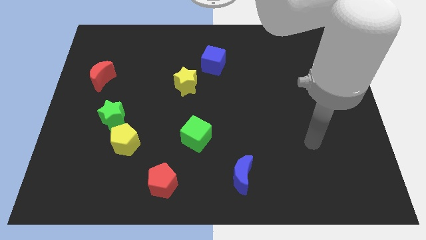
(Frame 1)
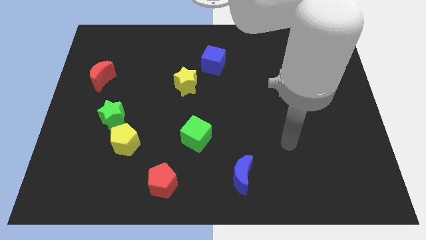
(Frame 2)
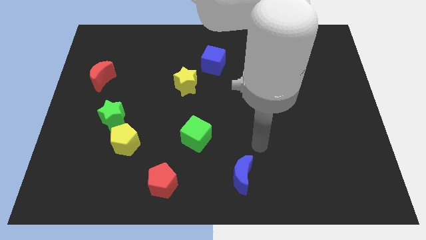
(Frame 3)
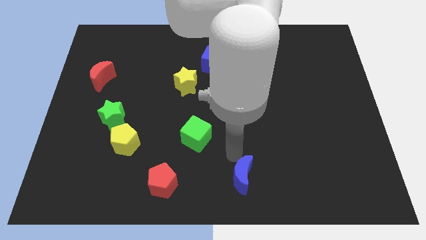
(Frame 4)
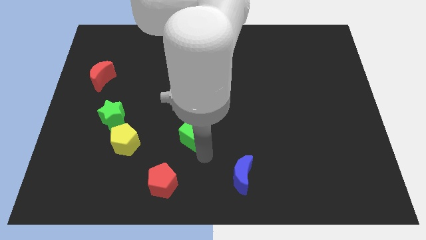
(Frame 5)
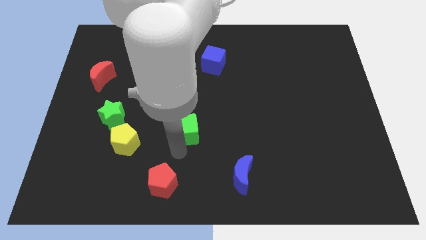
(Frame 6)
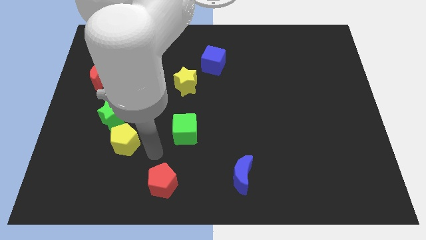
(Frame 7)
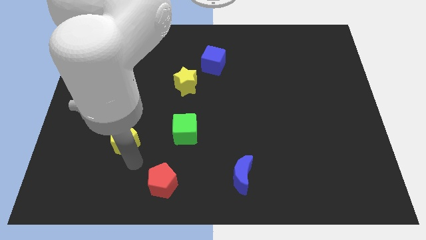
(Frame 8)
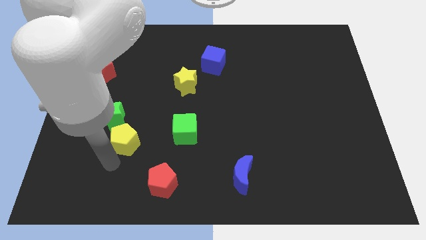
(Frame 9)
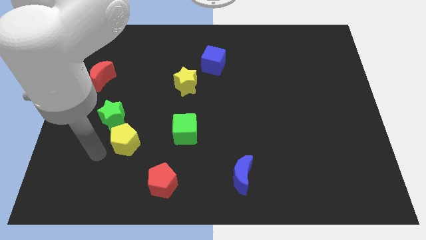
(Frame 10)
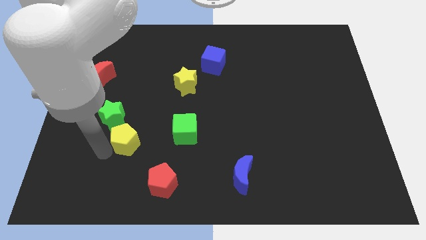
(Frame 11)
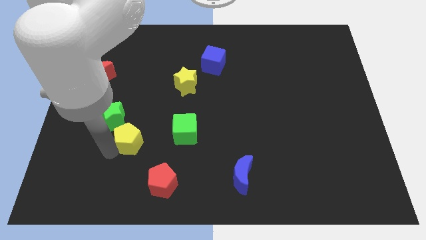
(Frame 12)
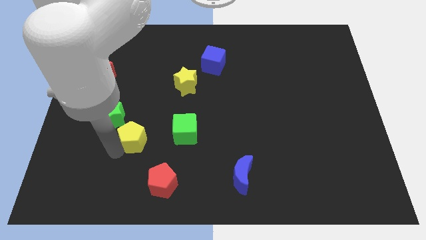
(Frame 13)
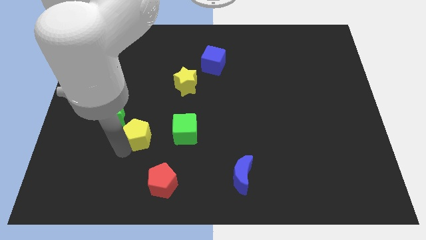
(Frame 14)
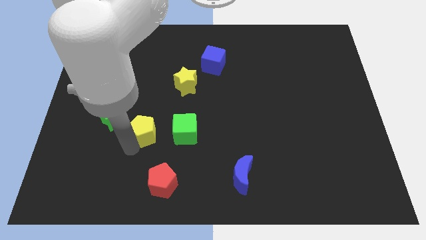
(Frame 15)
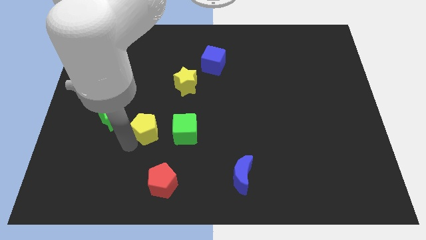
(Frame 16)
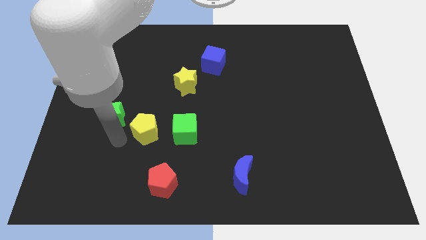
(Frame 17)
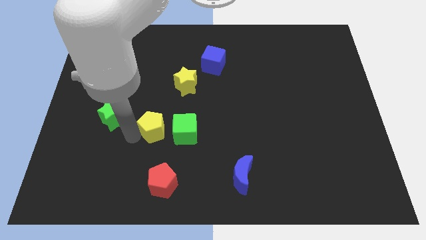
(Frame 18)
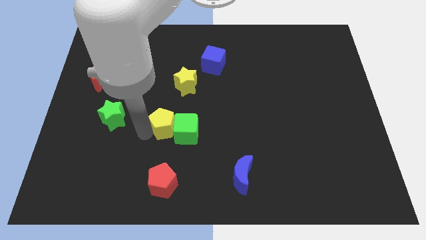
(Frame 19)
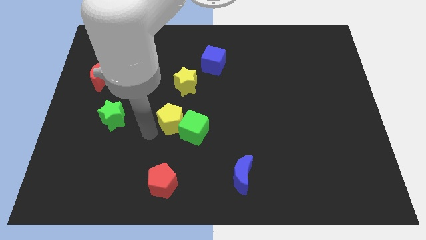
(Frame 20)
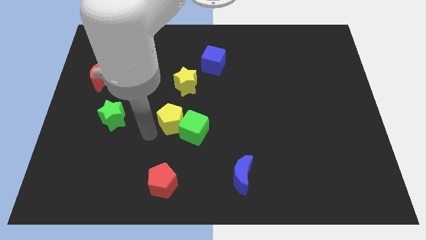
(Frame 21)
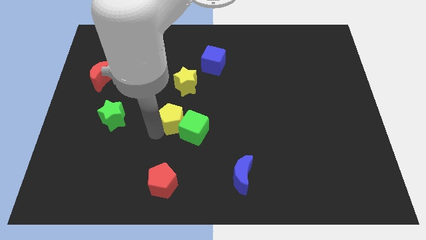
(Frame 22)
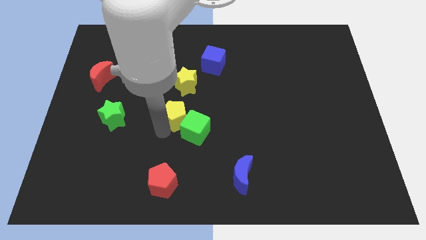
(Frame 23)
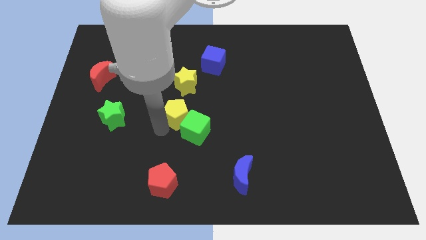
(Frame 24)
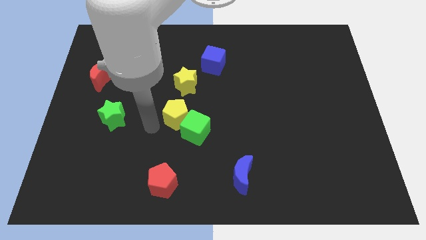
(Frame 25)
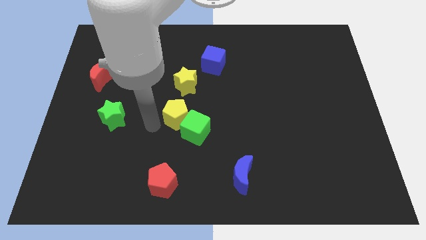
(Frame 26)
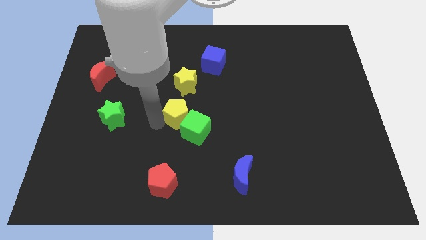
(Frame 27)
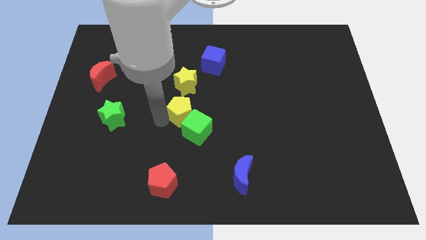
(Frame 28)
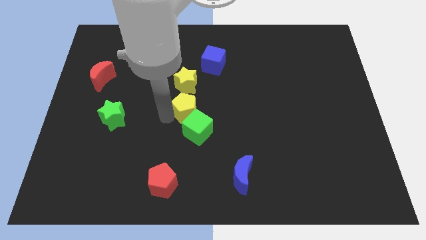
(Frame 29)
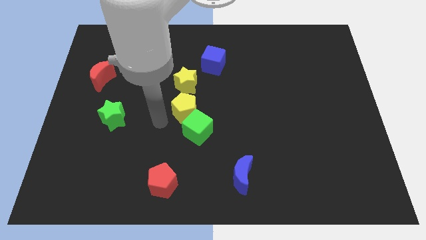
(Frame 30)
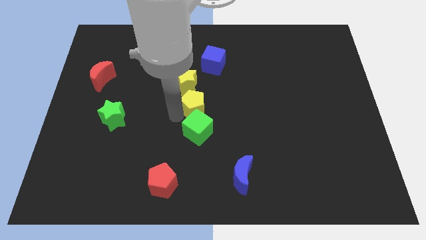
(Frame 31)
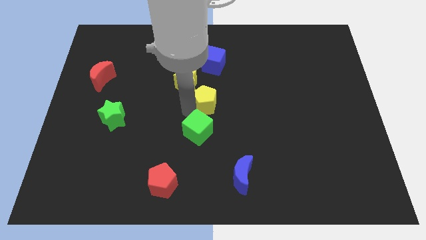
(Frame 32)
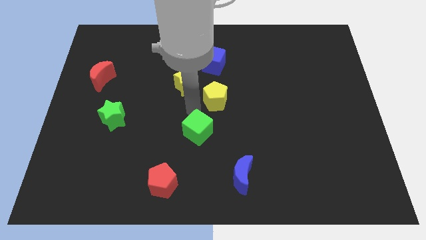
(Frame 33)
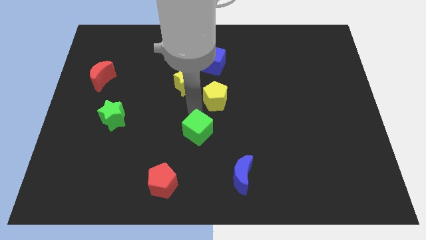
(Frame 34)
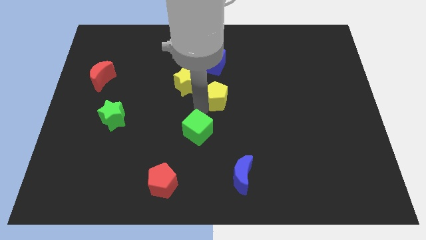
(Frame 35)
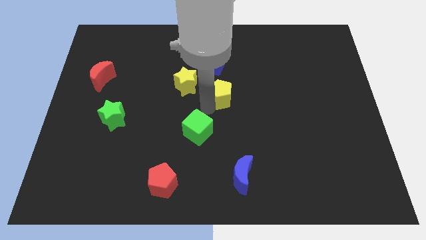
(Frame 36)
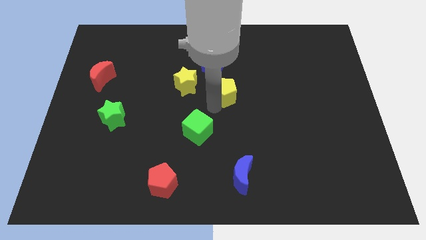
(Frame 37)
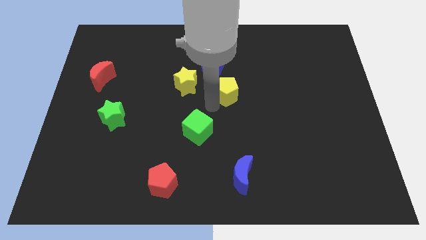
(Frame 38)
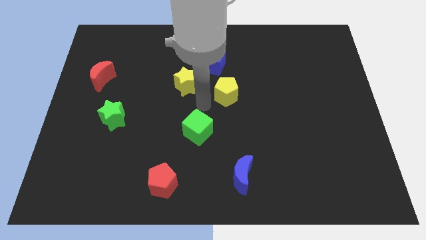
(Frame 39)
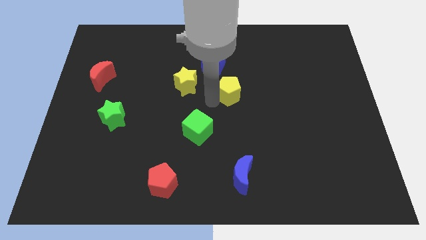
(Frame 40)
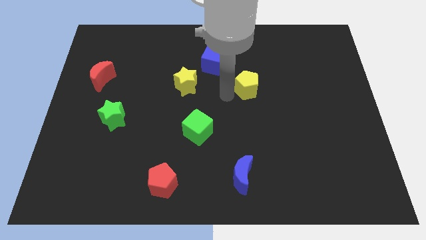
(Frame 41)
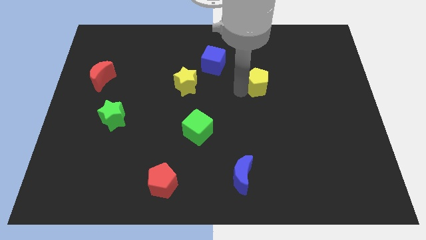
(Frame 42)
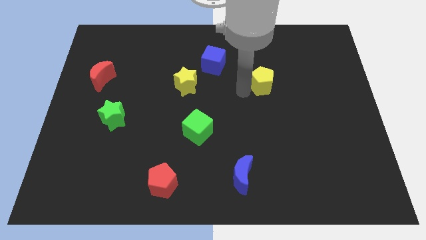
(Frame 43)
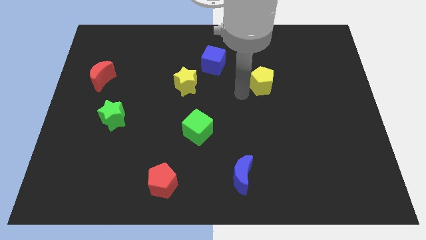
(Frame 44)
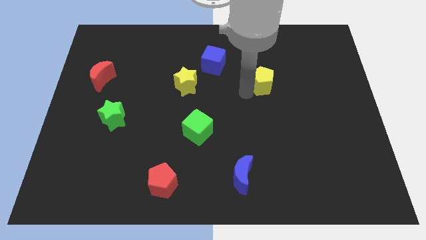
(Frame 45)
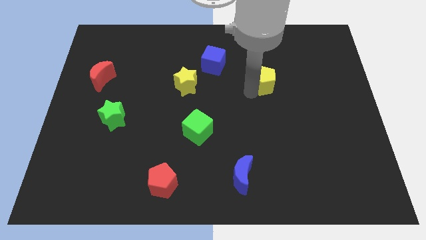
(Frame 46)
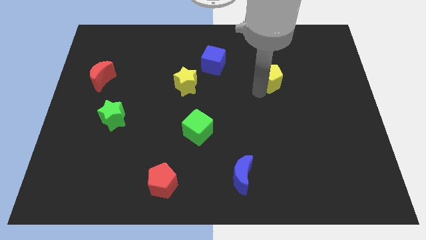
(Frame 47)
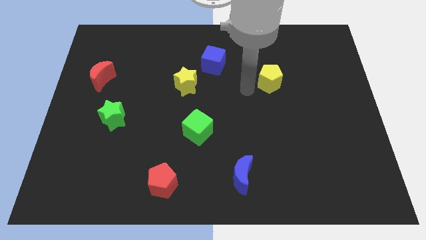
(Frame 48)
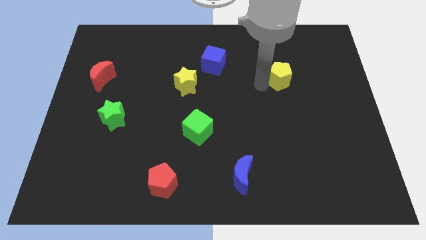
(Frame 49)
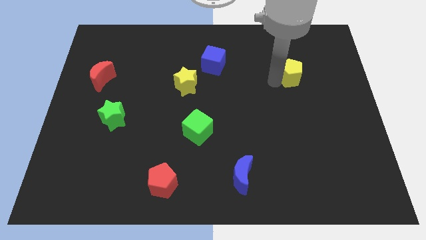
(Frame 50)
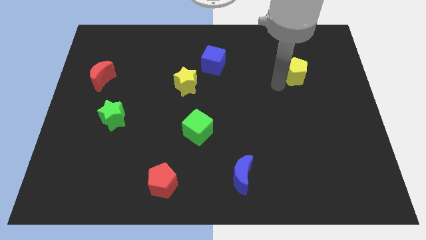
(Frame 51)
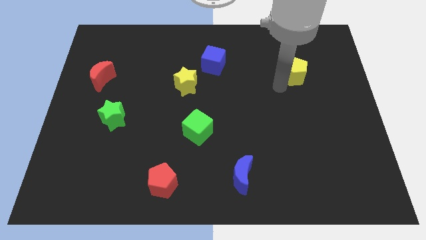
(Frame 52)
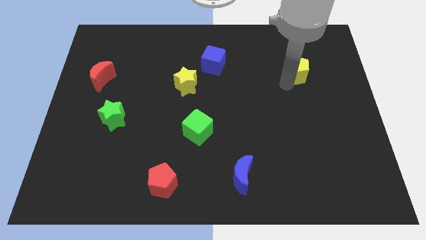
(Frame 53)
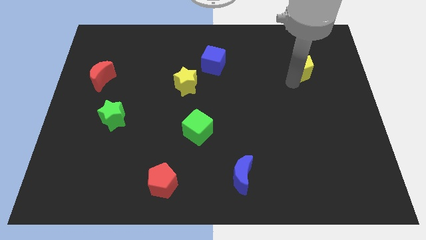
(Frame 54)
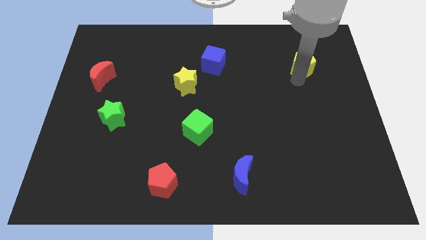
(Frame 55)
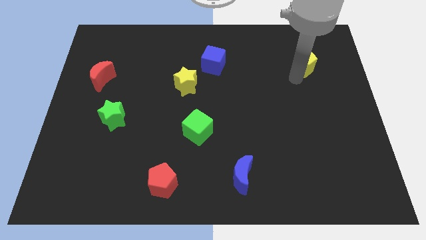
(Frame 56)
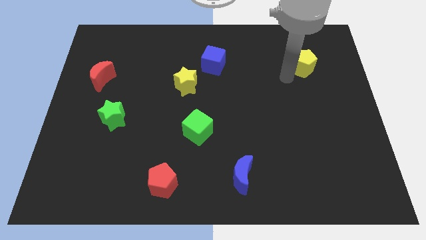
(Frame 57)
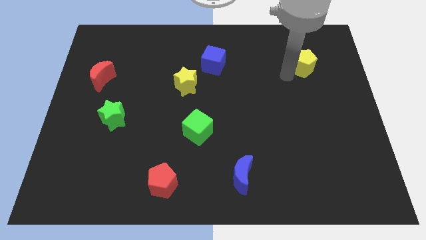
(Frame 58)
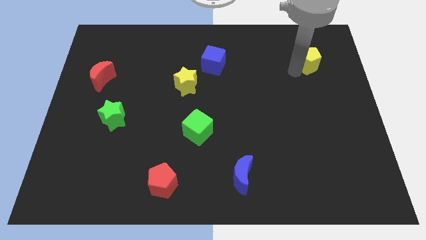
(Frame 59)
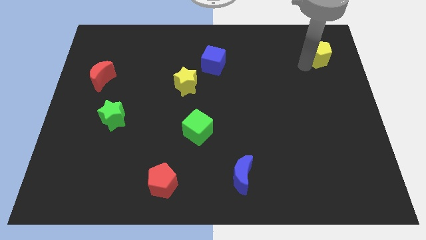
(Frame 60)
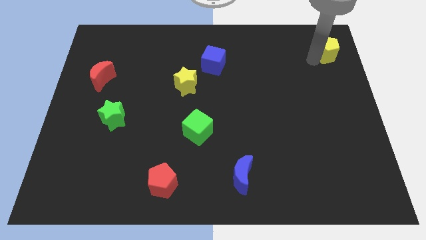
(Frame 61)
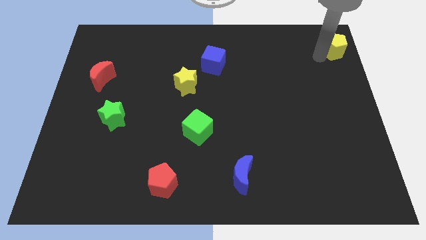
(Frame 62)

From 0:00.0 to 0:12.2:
push the yellow pentagon to the top right corner

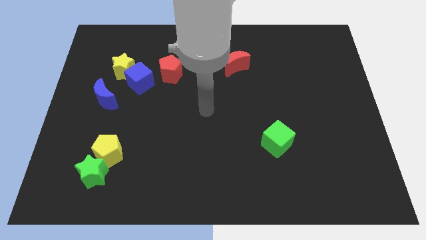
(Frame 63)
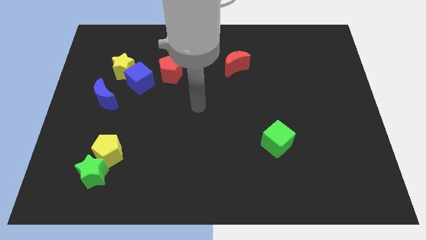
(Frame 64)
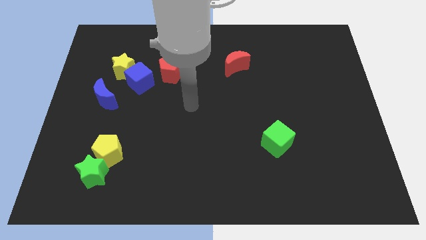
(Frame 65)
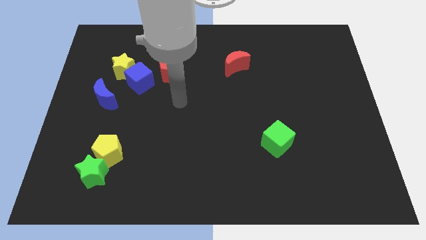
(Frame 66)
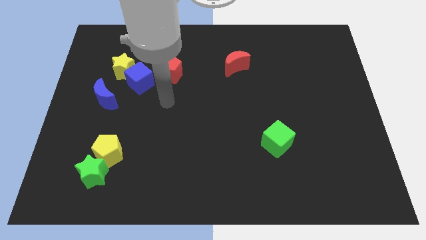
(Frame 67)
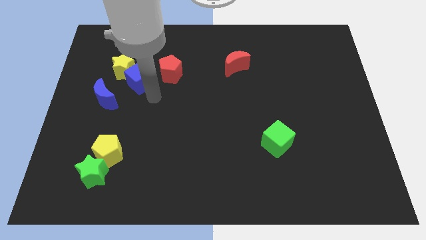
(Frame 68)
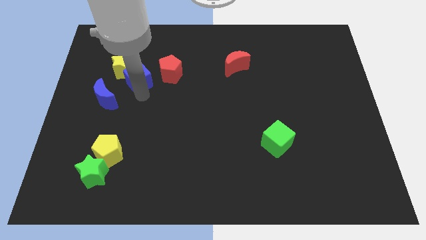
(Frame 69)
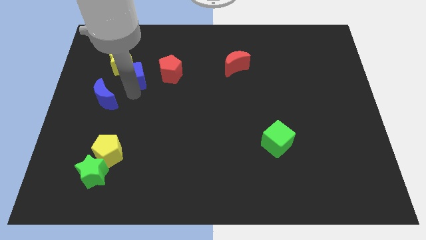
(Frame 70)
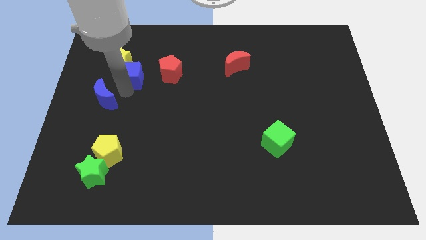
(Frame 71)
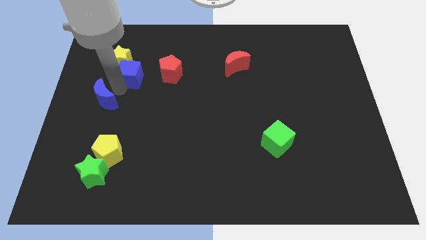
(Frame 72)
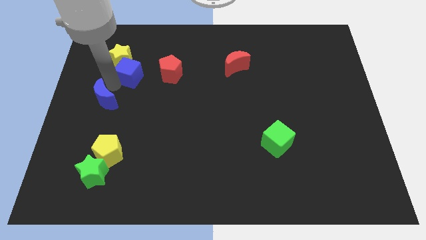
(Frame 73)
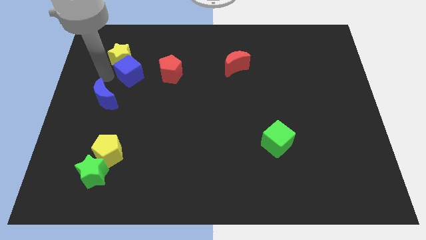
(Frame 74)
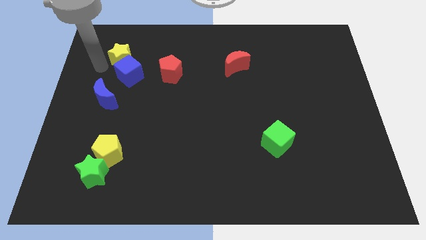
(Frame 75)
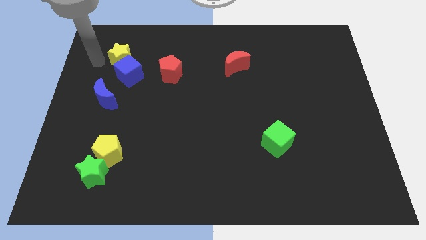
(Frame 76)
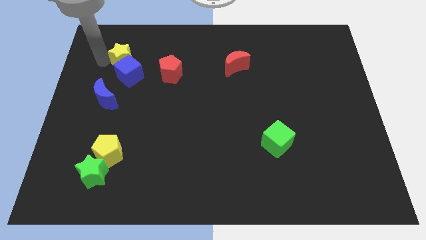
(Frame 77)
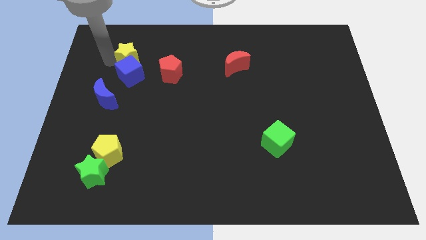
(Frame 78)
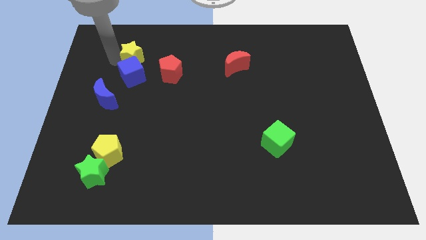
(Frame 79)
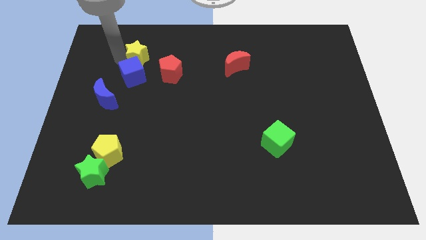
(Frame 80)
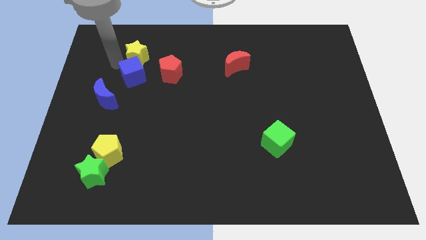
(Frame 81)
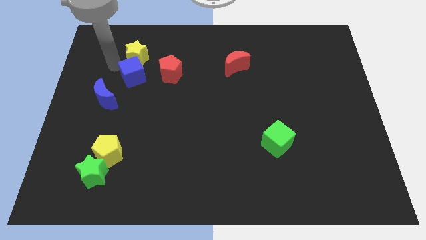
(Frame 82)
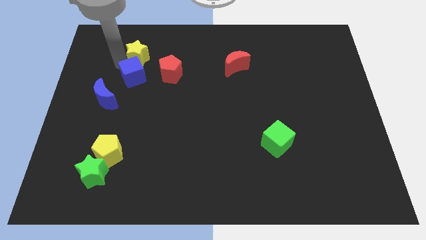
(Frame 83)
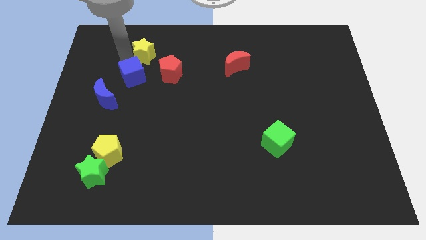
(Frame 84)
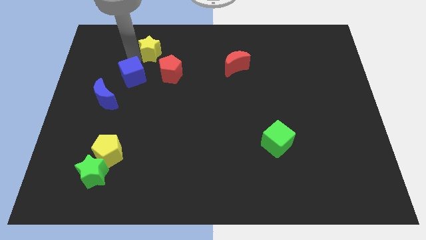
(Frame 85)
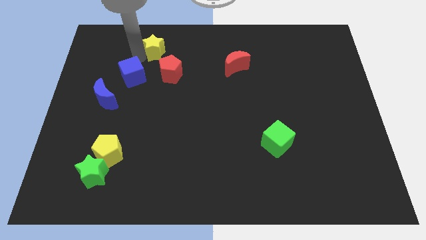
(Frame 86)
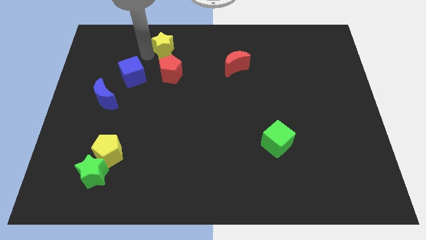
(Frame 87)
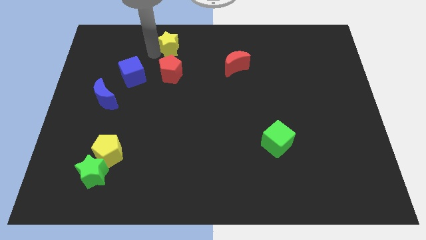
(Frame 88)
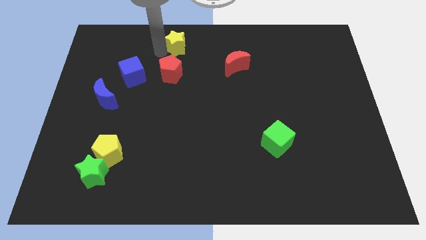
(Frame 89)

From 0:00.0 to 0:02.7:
push the yellow star to the top
